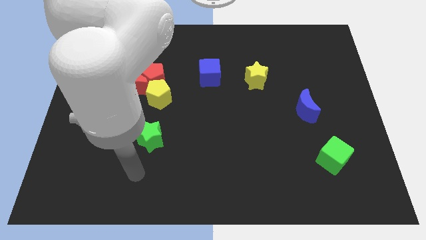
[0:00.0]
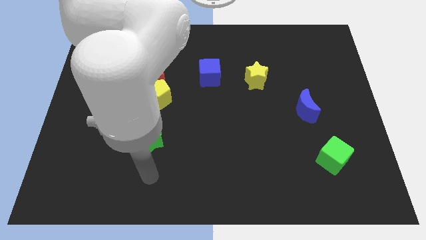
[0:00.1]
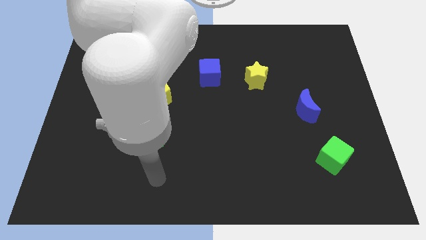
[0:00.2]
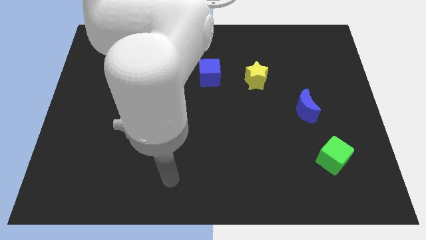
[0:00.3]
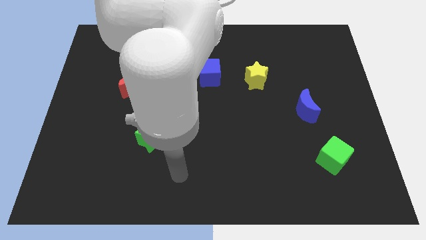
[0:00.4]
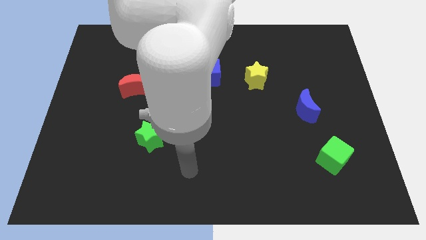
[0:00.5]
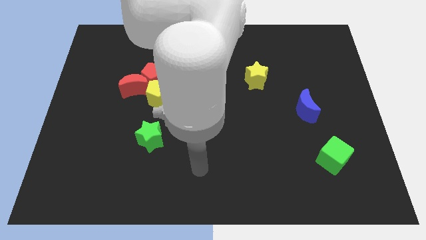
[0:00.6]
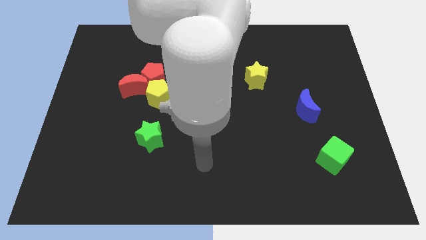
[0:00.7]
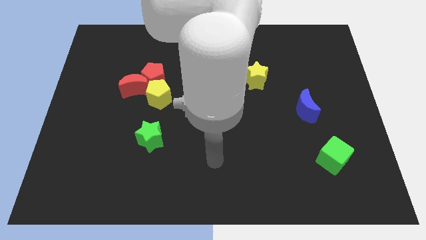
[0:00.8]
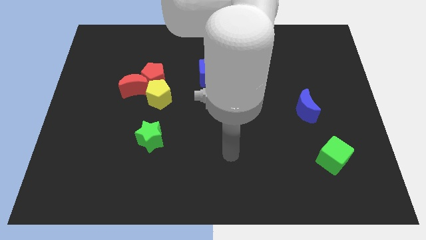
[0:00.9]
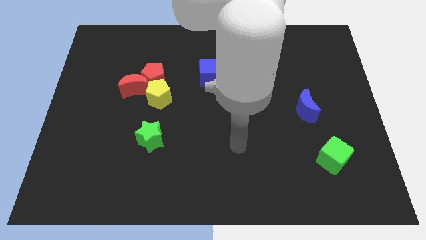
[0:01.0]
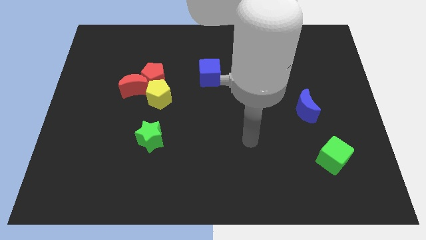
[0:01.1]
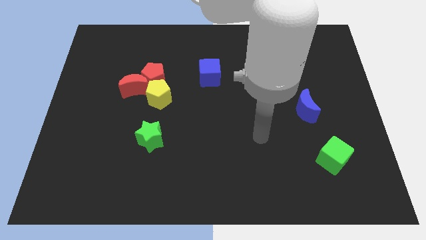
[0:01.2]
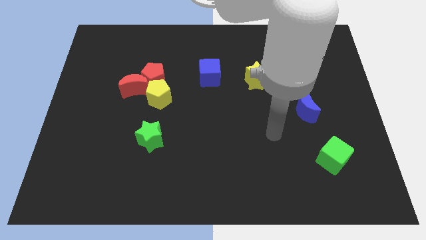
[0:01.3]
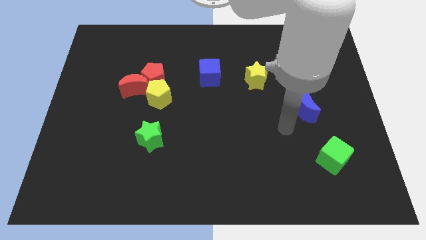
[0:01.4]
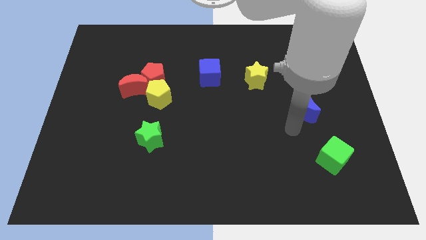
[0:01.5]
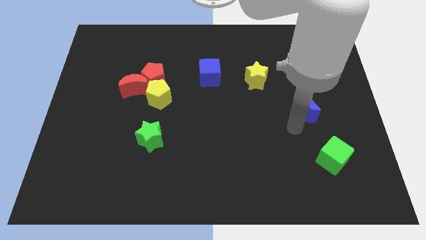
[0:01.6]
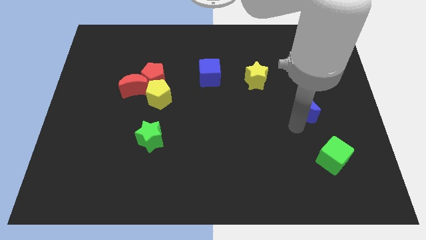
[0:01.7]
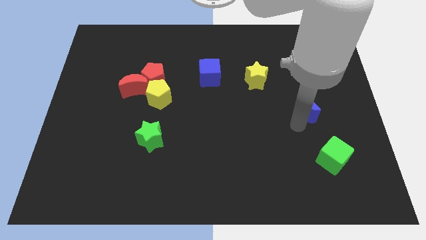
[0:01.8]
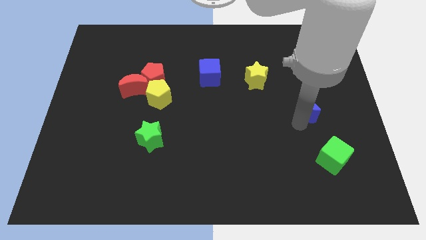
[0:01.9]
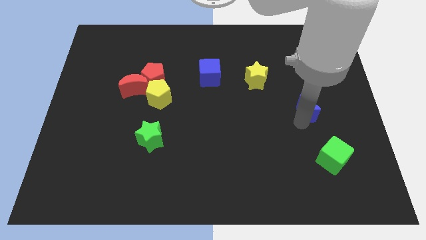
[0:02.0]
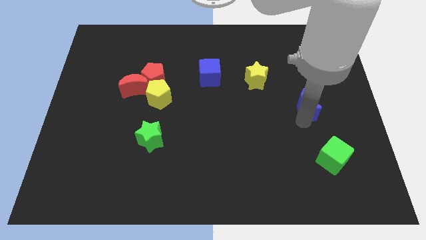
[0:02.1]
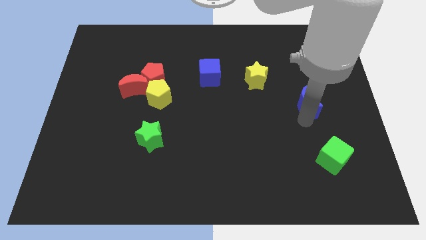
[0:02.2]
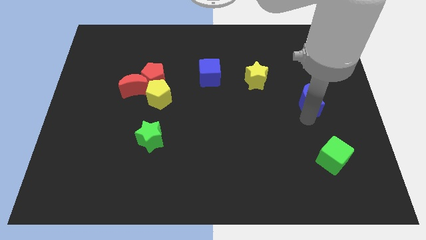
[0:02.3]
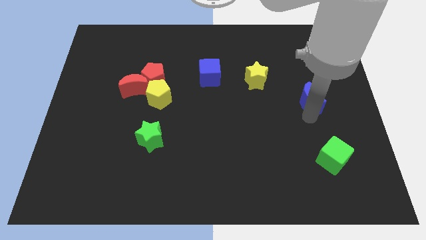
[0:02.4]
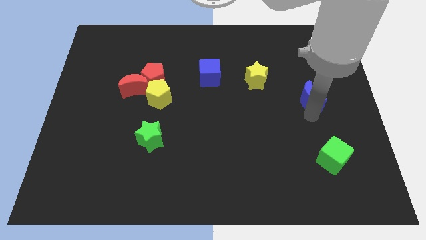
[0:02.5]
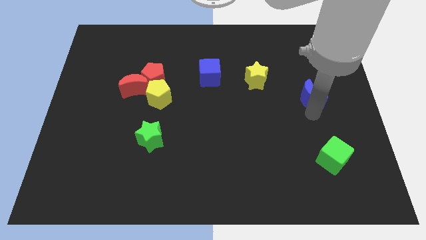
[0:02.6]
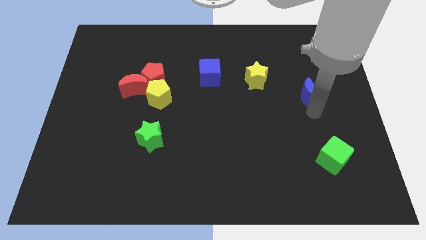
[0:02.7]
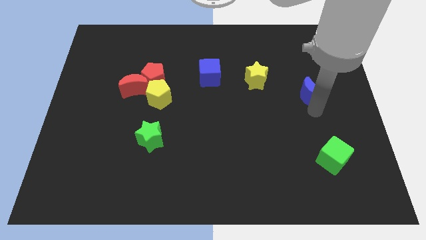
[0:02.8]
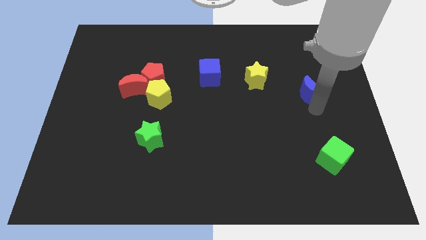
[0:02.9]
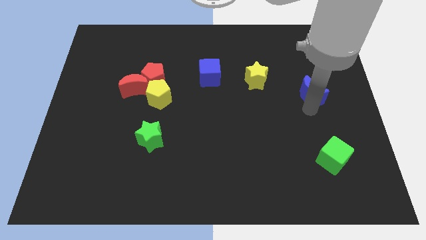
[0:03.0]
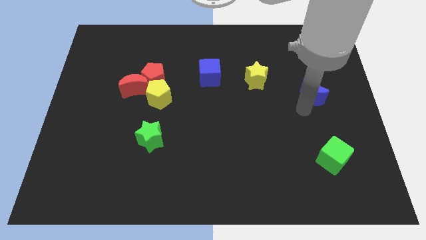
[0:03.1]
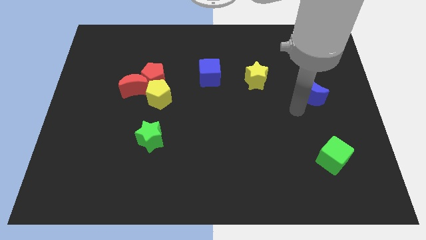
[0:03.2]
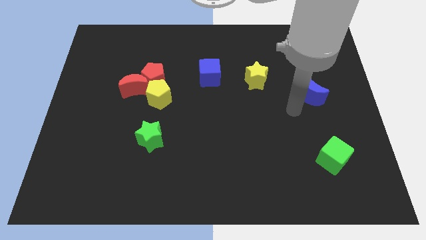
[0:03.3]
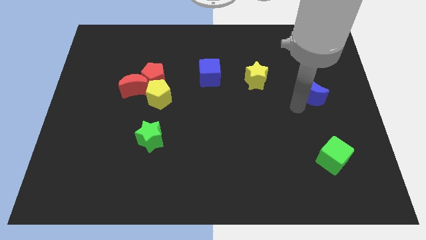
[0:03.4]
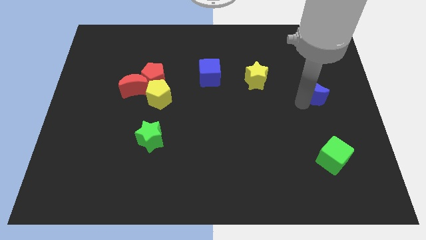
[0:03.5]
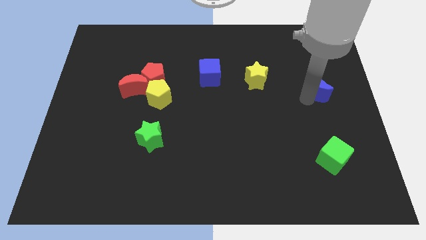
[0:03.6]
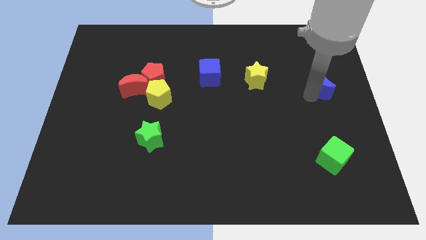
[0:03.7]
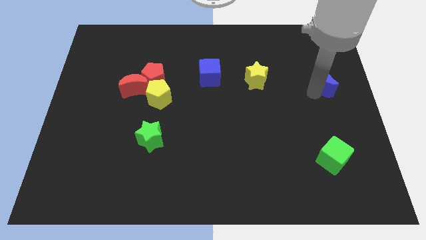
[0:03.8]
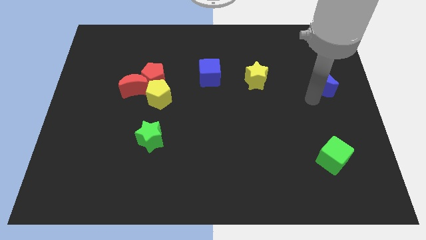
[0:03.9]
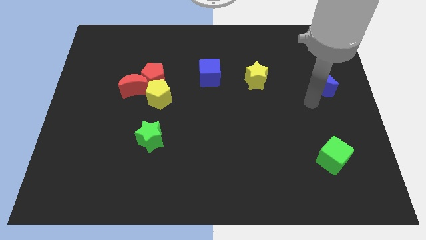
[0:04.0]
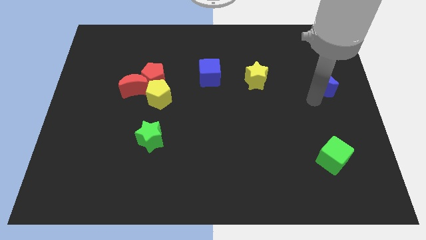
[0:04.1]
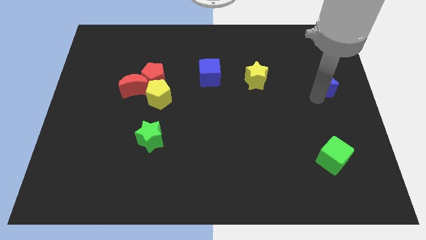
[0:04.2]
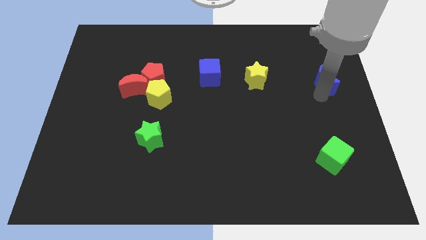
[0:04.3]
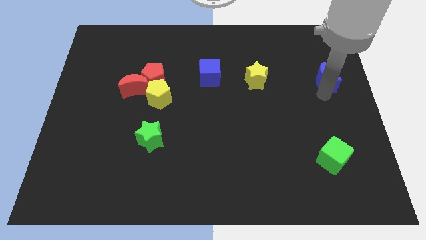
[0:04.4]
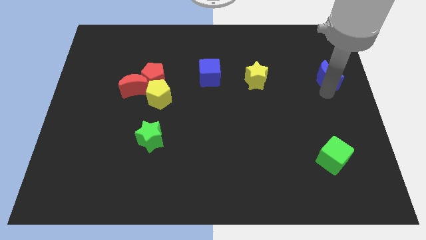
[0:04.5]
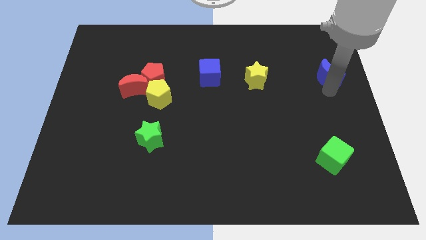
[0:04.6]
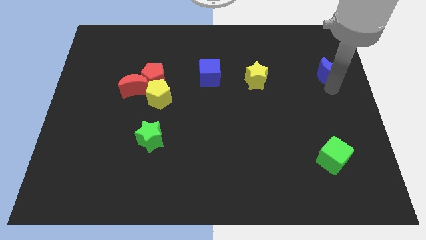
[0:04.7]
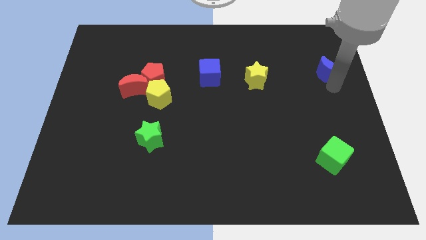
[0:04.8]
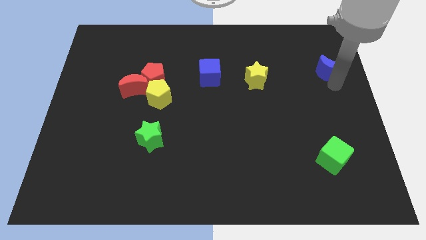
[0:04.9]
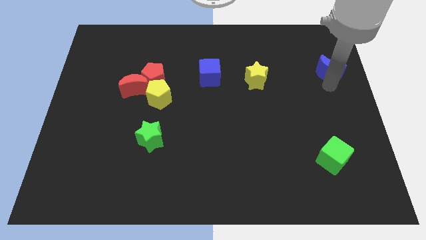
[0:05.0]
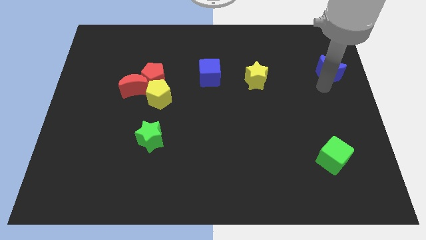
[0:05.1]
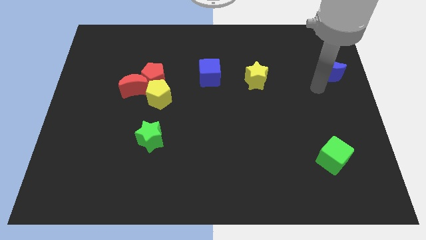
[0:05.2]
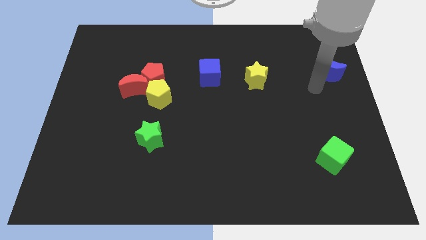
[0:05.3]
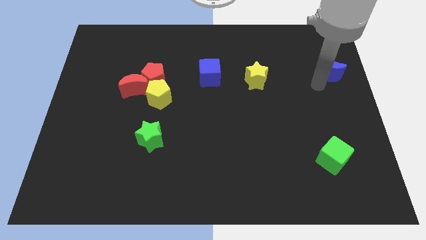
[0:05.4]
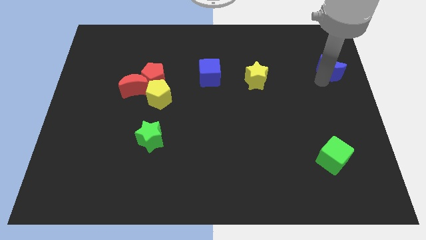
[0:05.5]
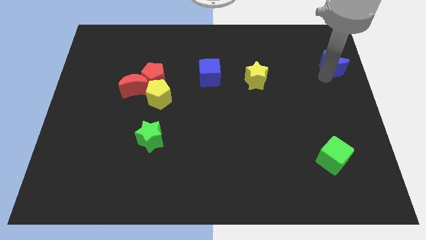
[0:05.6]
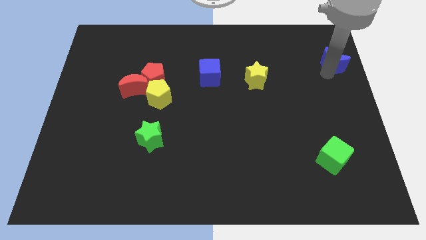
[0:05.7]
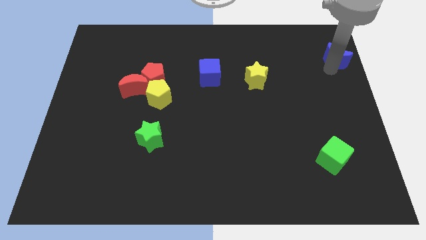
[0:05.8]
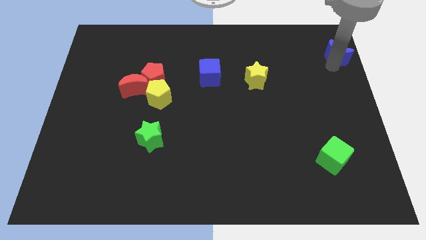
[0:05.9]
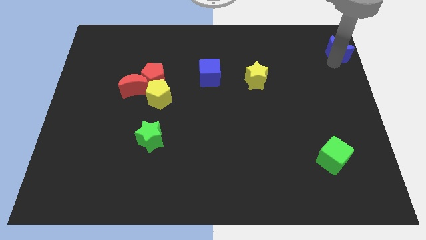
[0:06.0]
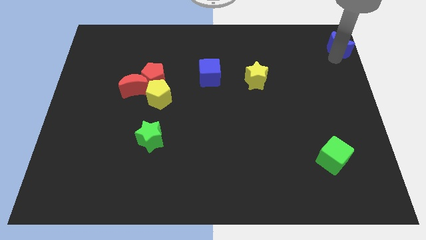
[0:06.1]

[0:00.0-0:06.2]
move the blue moon to the top right
